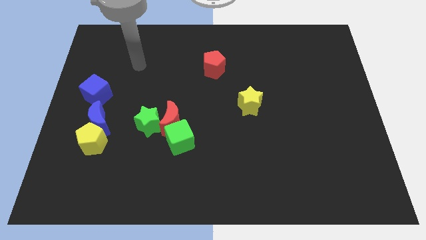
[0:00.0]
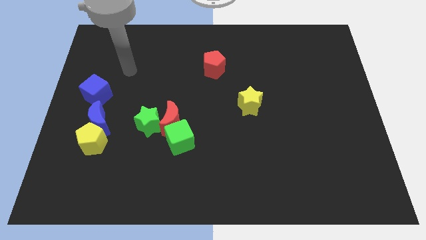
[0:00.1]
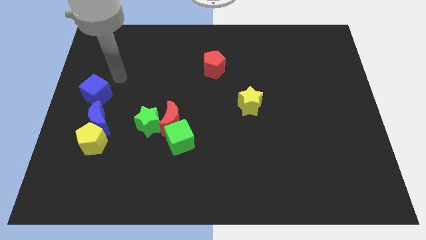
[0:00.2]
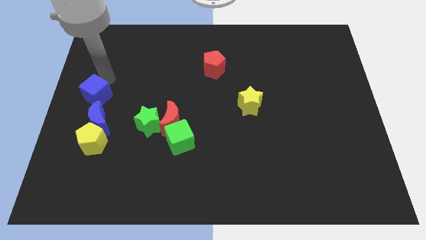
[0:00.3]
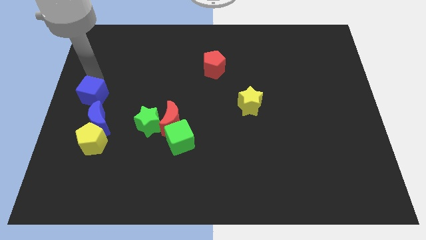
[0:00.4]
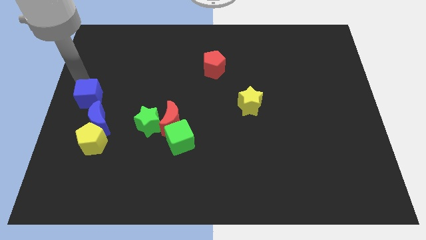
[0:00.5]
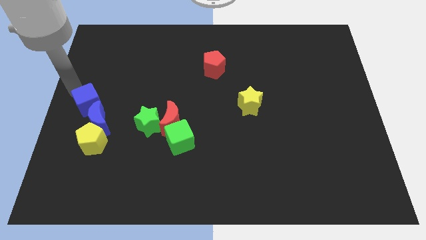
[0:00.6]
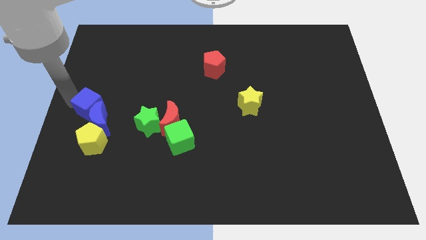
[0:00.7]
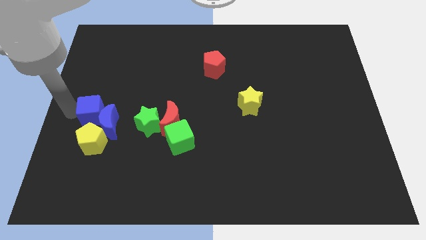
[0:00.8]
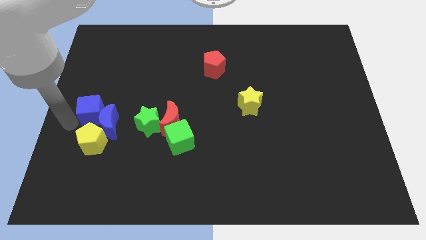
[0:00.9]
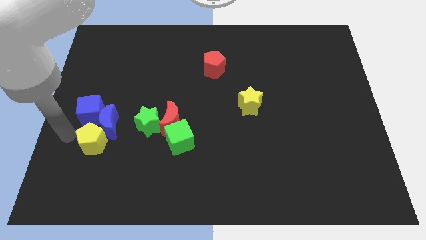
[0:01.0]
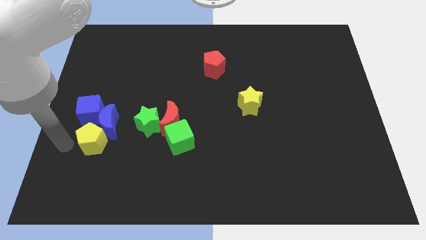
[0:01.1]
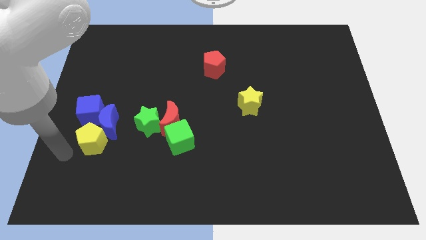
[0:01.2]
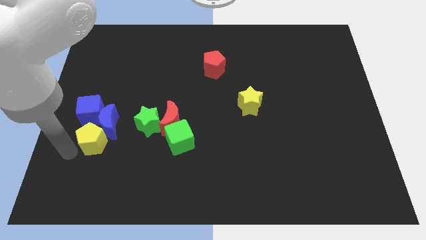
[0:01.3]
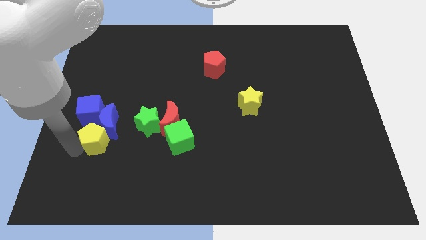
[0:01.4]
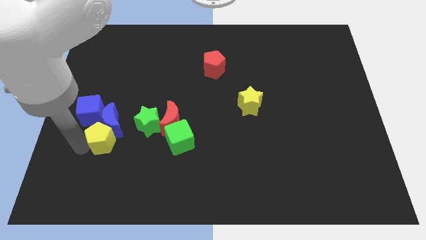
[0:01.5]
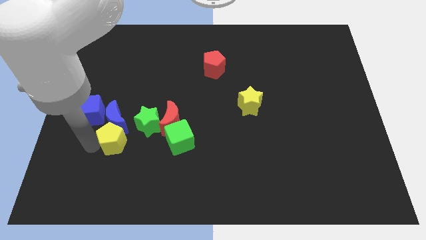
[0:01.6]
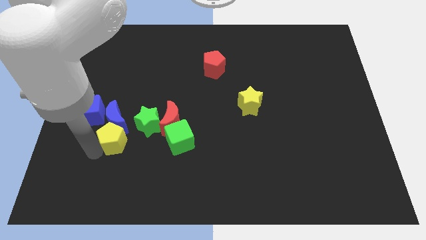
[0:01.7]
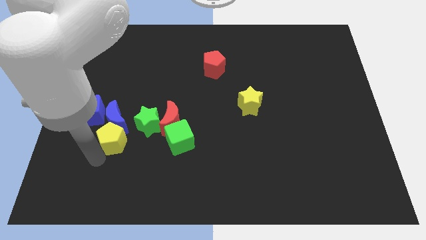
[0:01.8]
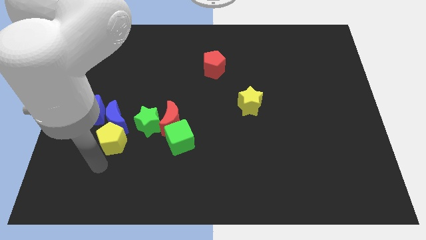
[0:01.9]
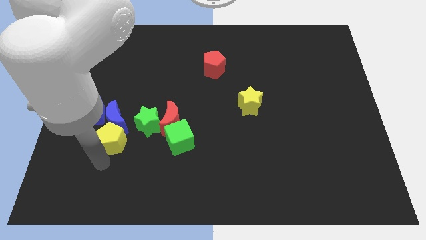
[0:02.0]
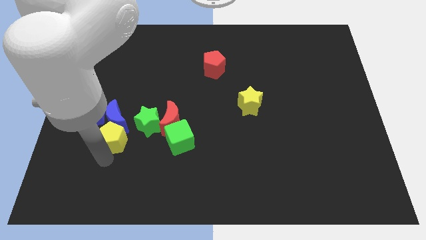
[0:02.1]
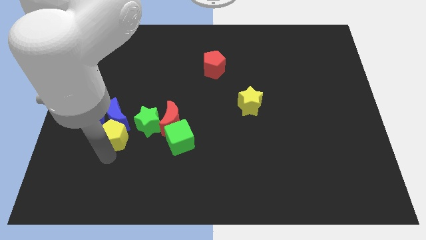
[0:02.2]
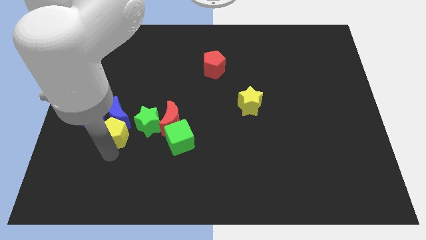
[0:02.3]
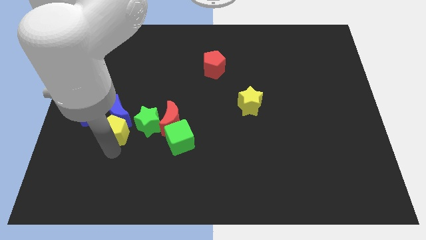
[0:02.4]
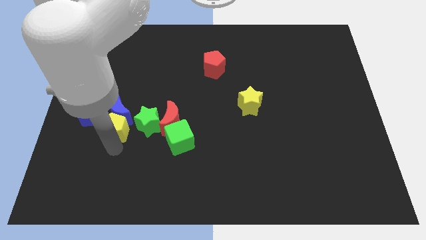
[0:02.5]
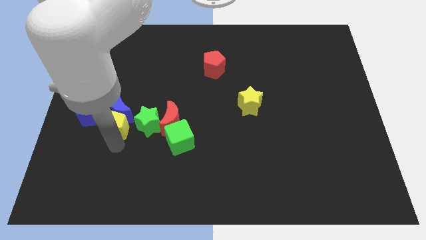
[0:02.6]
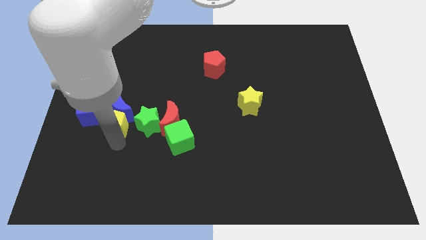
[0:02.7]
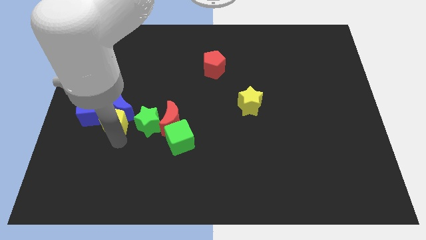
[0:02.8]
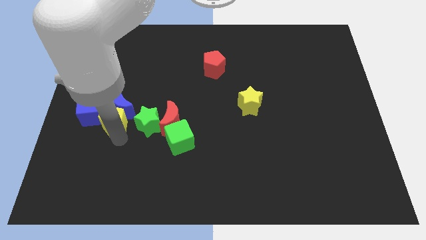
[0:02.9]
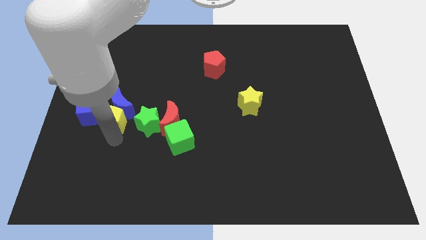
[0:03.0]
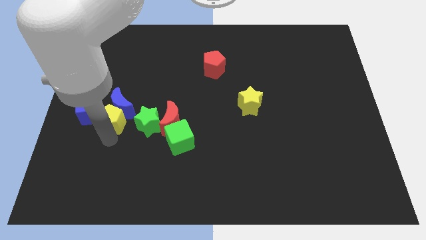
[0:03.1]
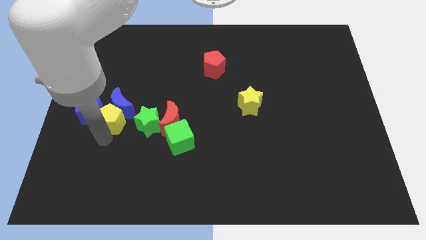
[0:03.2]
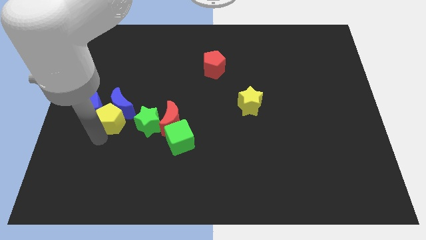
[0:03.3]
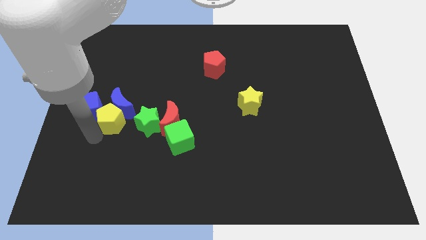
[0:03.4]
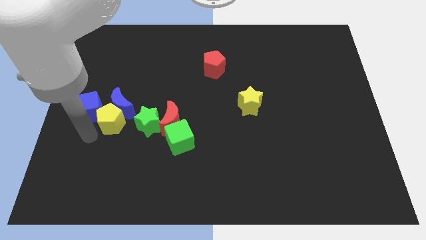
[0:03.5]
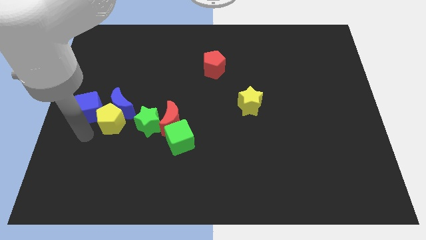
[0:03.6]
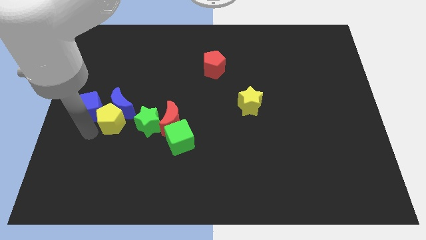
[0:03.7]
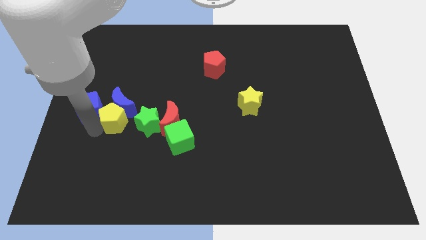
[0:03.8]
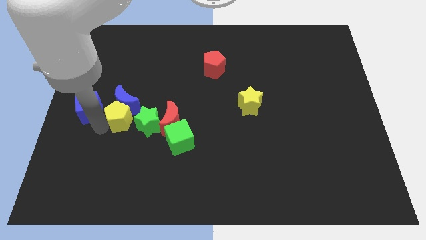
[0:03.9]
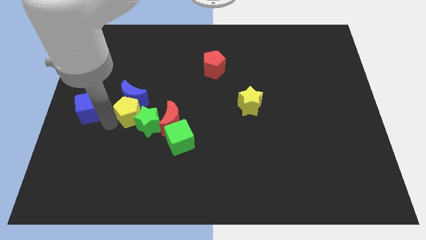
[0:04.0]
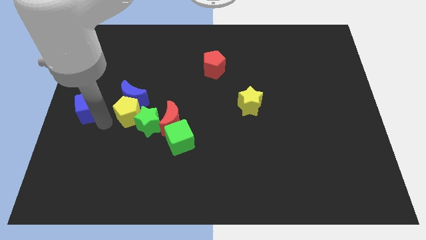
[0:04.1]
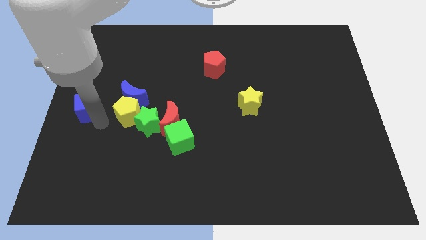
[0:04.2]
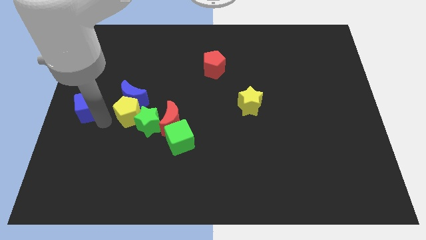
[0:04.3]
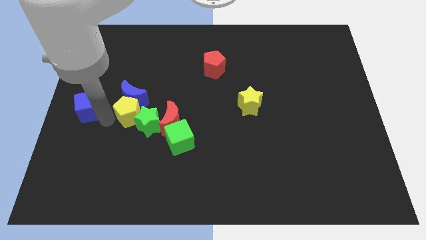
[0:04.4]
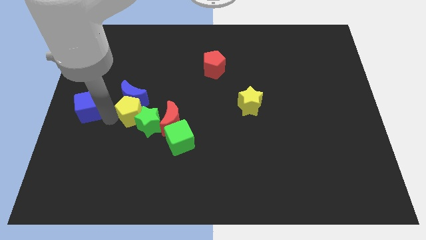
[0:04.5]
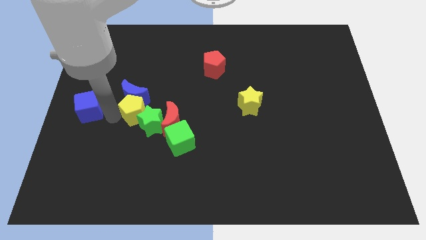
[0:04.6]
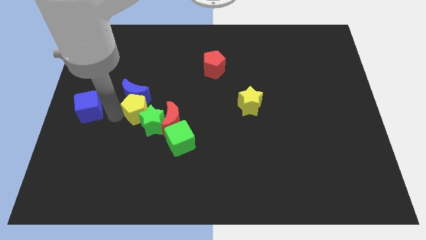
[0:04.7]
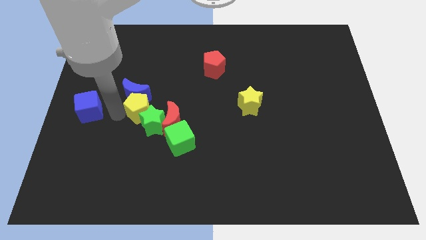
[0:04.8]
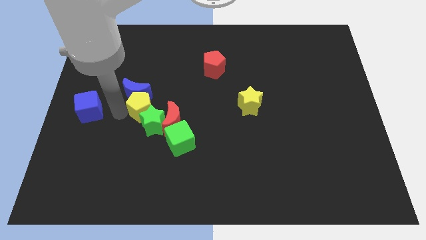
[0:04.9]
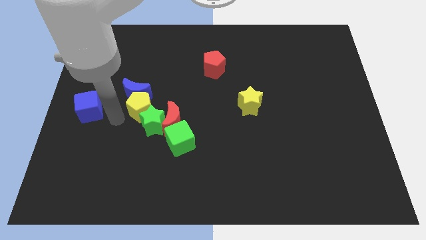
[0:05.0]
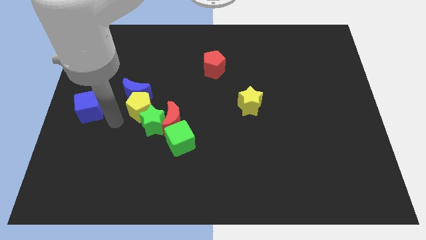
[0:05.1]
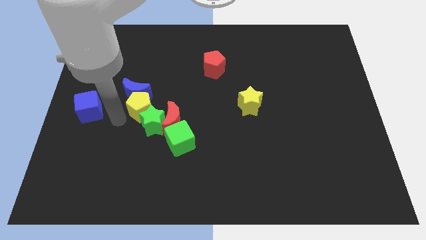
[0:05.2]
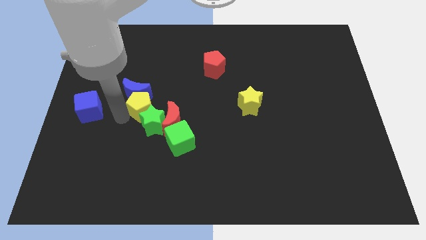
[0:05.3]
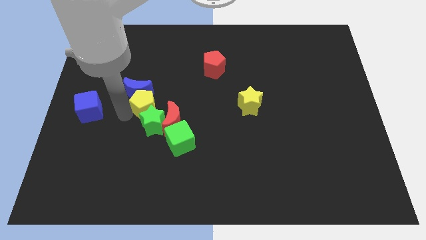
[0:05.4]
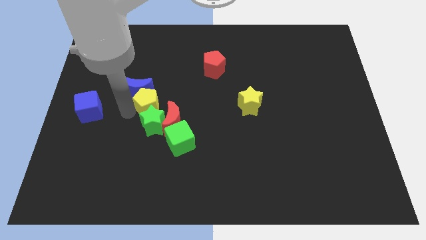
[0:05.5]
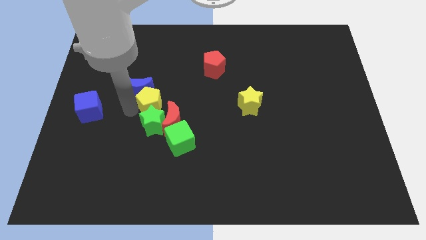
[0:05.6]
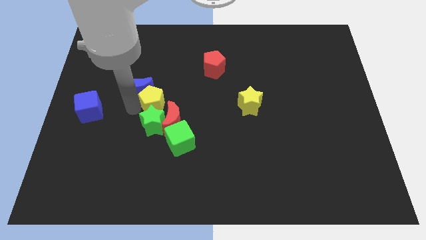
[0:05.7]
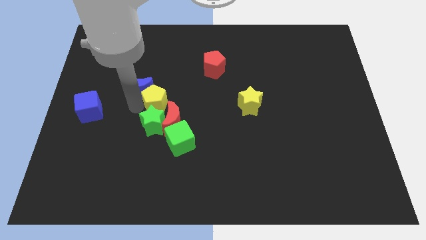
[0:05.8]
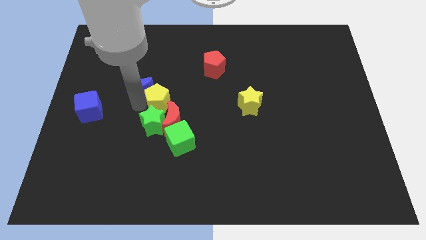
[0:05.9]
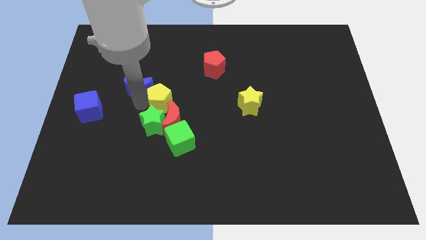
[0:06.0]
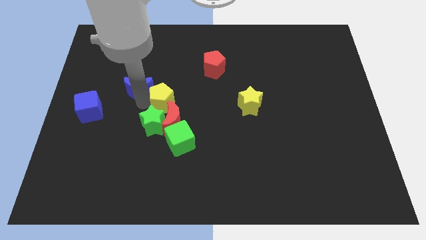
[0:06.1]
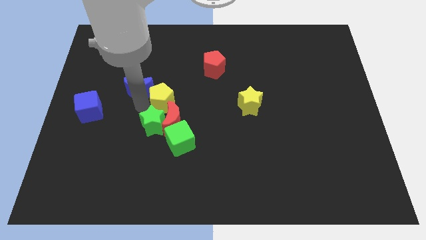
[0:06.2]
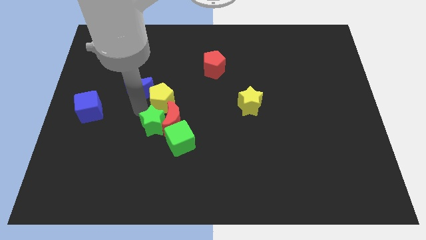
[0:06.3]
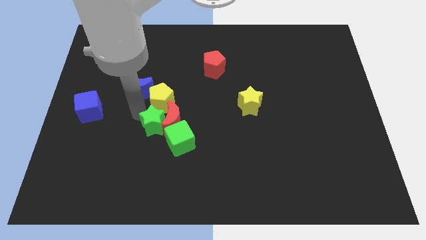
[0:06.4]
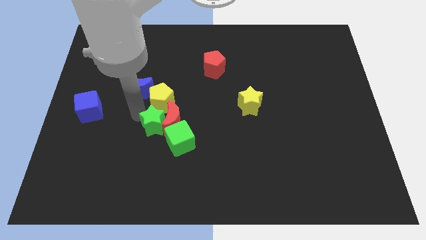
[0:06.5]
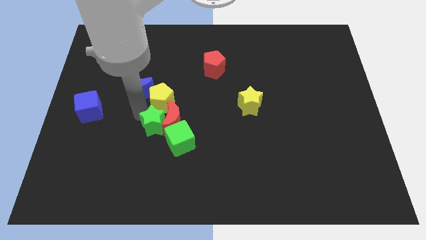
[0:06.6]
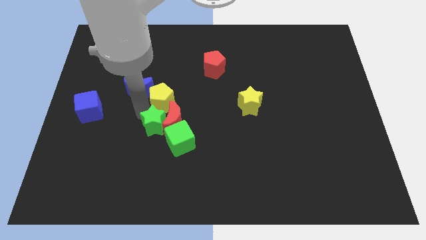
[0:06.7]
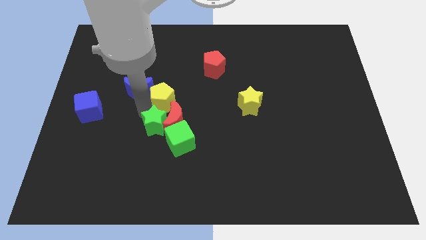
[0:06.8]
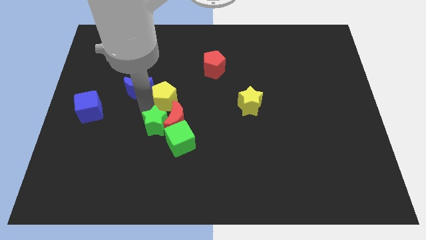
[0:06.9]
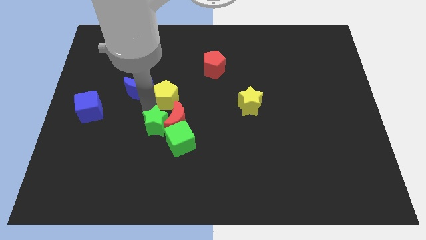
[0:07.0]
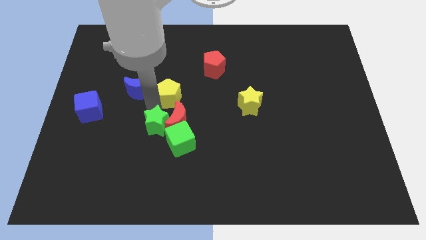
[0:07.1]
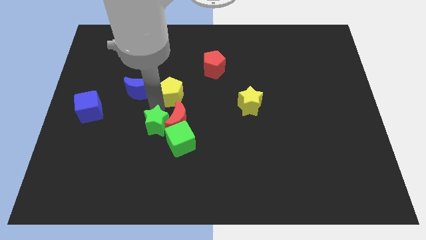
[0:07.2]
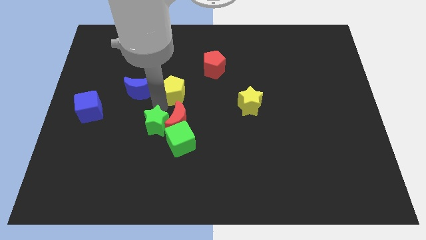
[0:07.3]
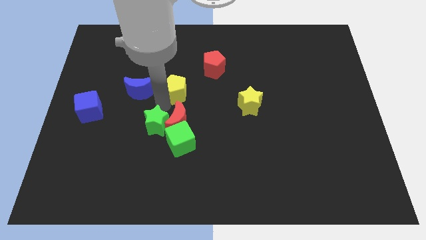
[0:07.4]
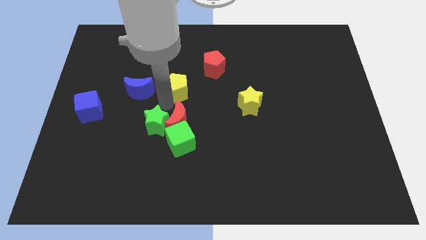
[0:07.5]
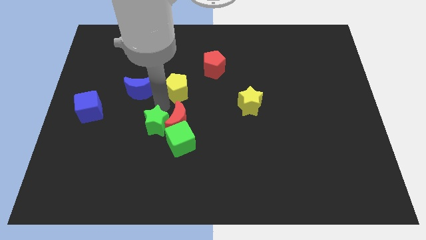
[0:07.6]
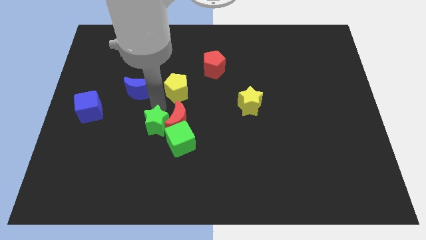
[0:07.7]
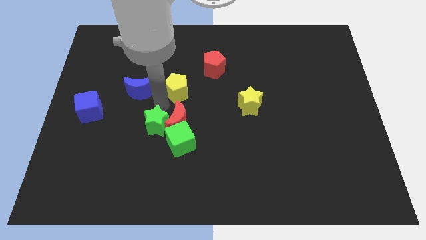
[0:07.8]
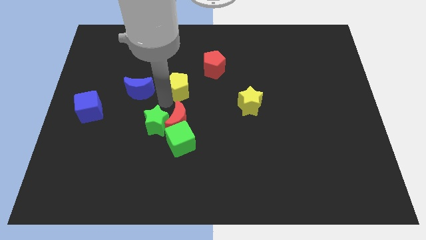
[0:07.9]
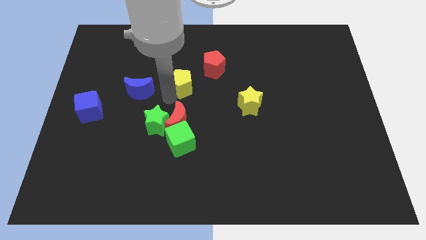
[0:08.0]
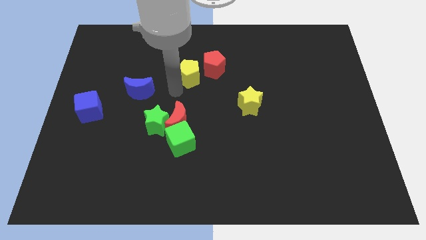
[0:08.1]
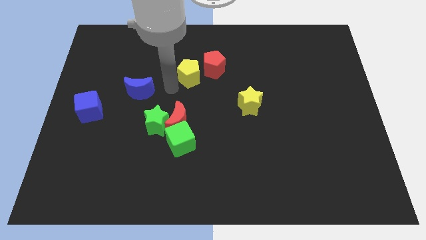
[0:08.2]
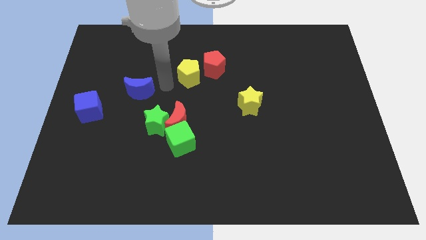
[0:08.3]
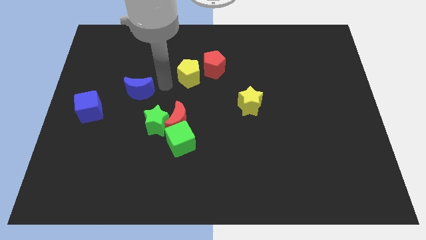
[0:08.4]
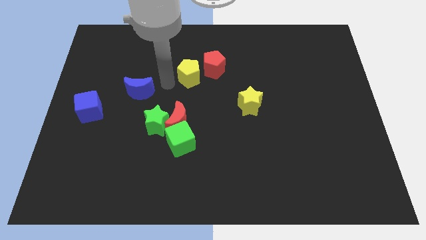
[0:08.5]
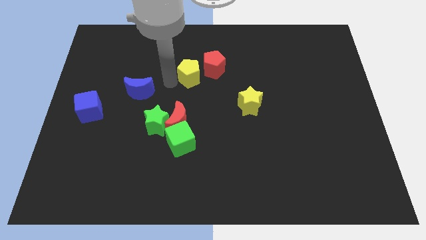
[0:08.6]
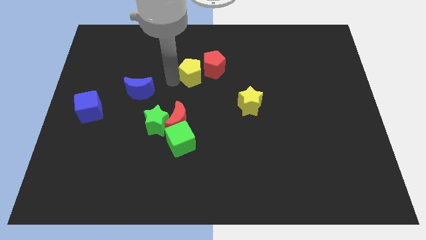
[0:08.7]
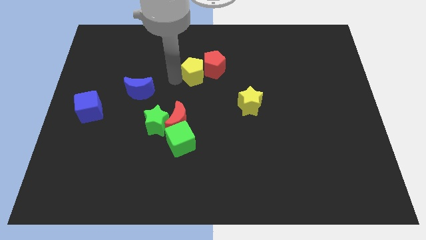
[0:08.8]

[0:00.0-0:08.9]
push the yellow pentagon towards the red pentagon
